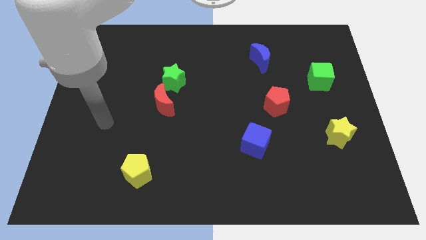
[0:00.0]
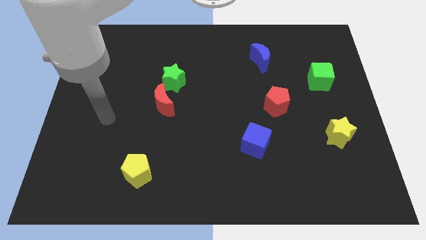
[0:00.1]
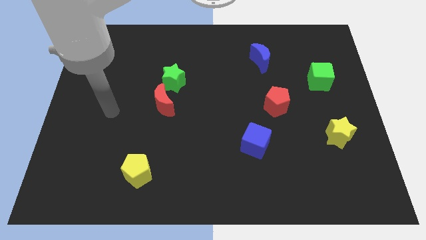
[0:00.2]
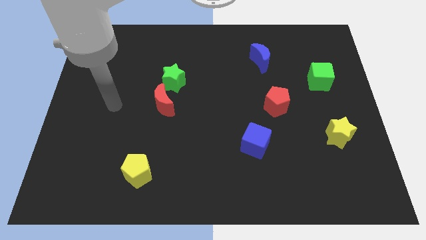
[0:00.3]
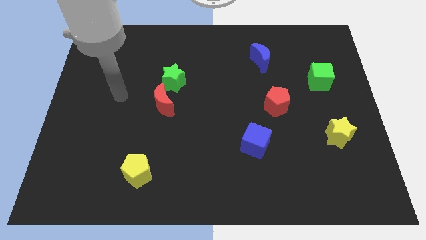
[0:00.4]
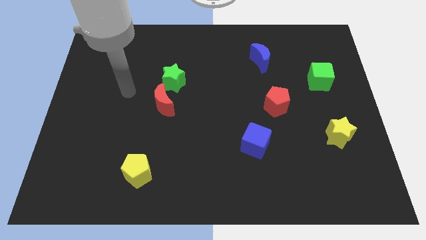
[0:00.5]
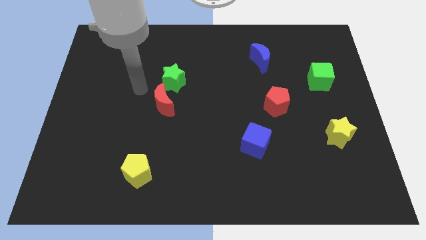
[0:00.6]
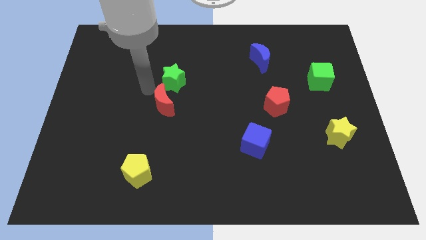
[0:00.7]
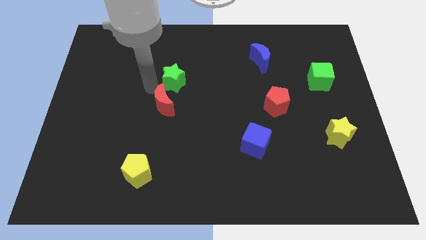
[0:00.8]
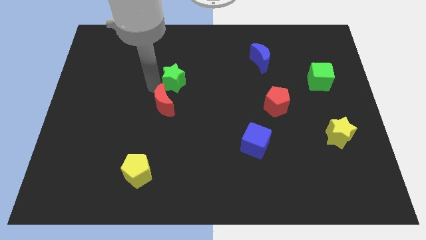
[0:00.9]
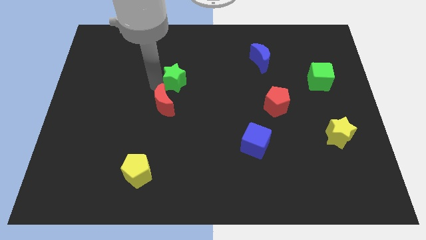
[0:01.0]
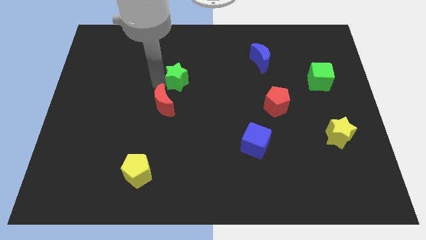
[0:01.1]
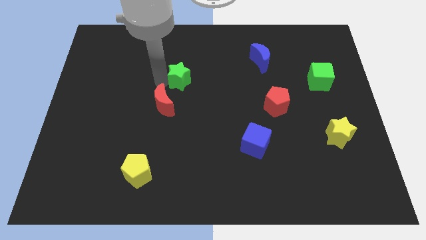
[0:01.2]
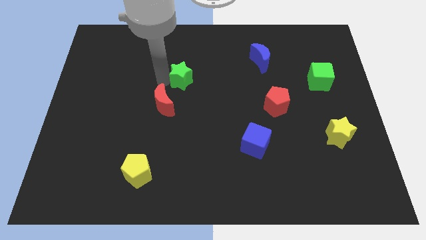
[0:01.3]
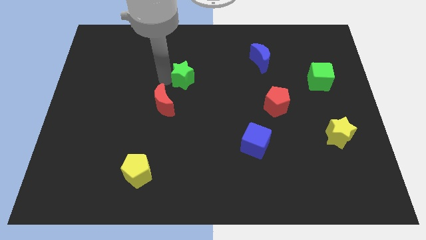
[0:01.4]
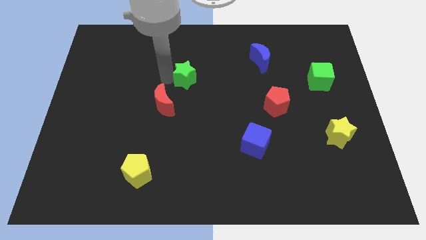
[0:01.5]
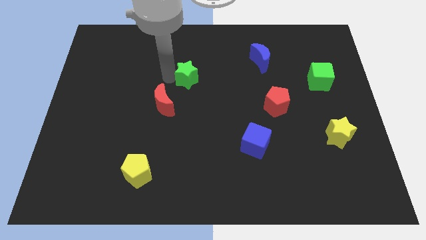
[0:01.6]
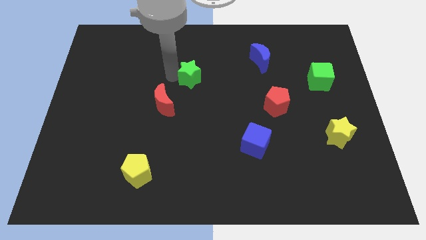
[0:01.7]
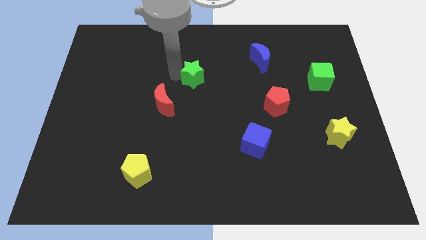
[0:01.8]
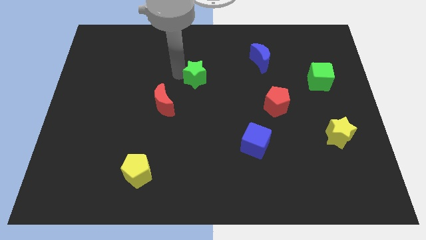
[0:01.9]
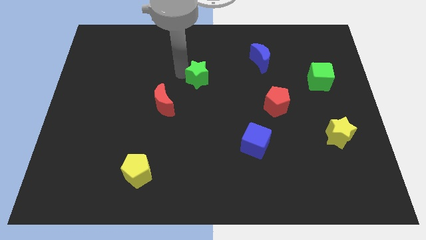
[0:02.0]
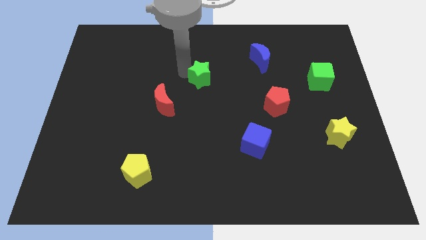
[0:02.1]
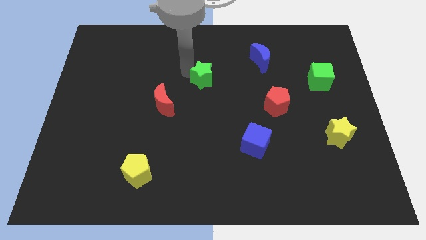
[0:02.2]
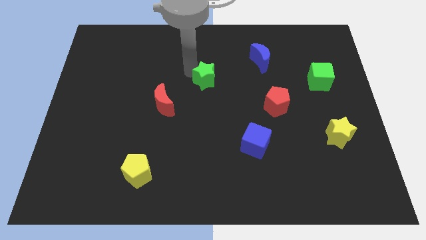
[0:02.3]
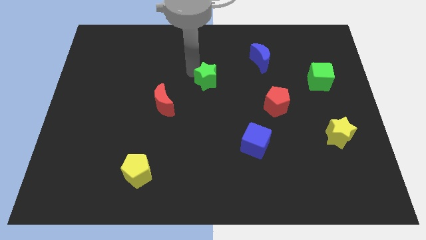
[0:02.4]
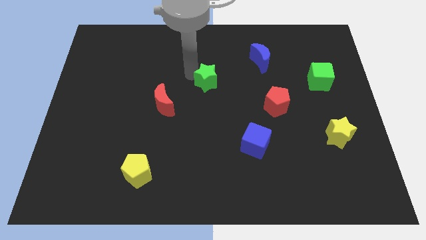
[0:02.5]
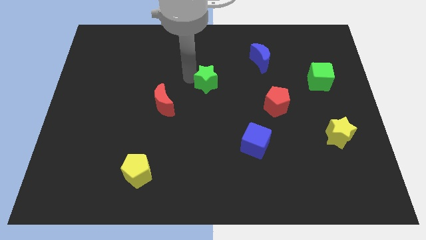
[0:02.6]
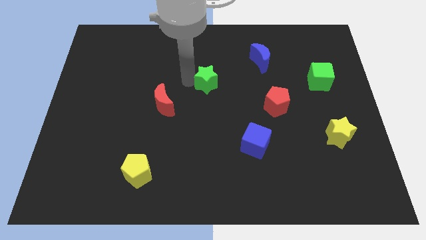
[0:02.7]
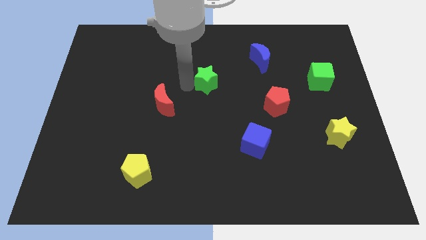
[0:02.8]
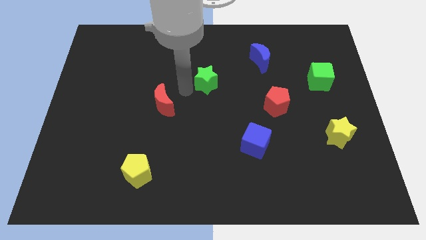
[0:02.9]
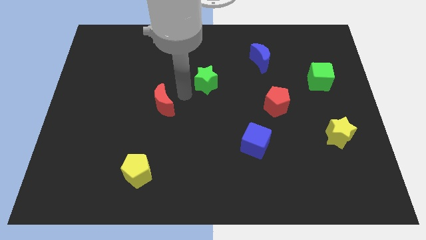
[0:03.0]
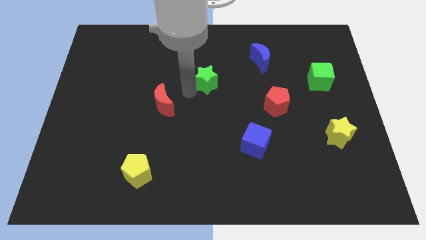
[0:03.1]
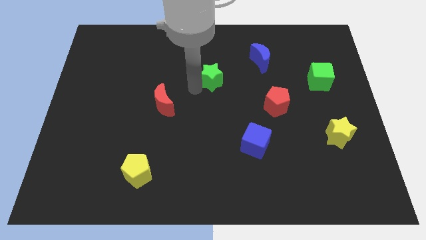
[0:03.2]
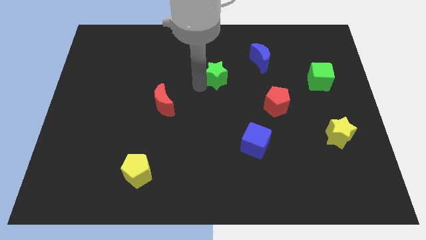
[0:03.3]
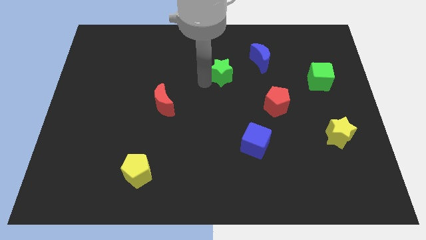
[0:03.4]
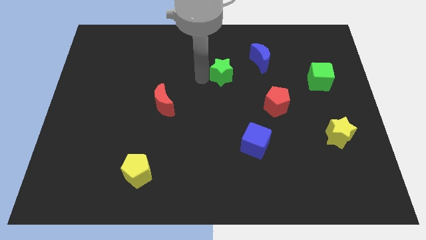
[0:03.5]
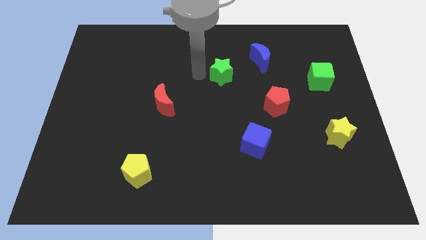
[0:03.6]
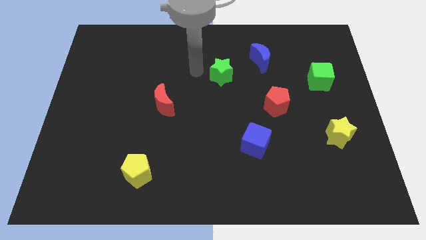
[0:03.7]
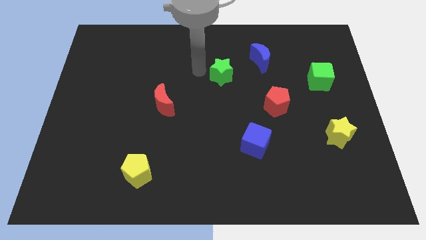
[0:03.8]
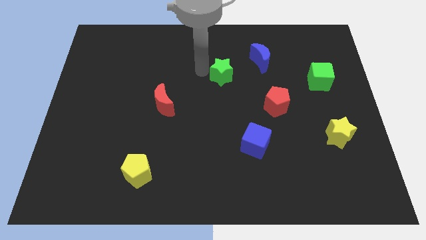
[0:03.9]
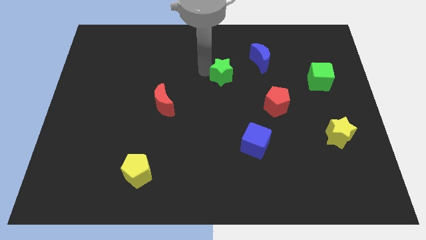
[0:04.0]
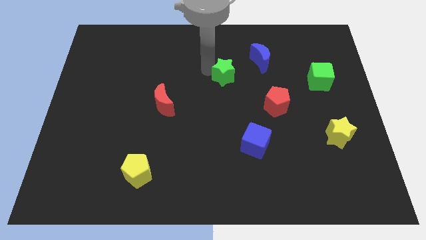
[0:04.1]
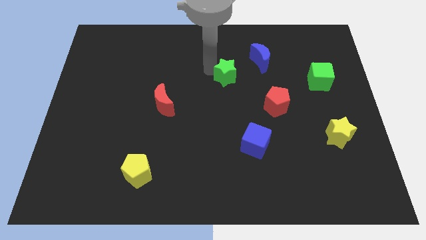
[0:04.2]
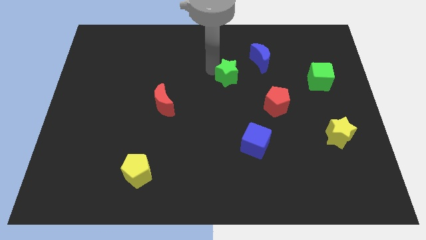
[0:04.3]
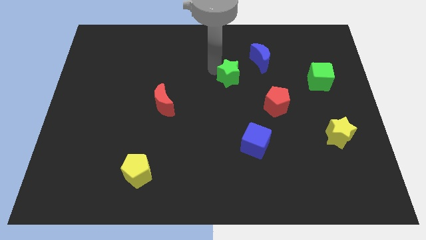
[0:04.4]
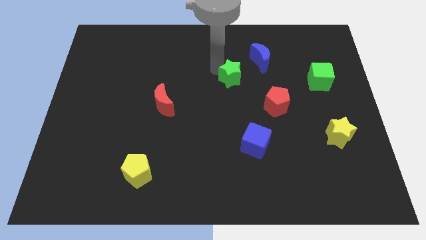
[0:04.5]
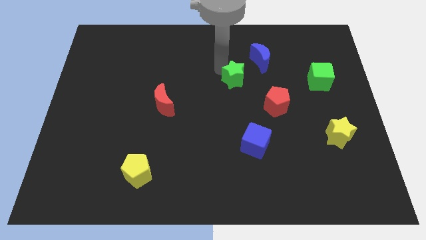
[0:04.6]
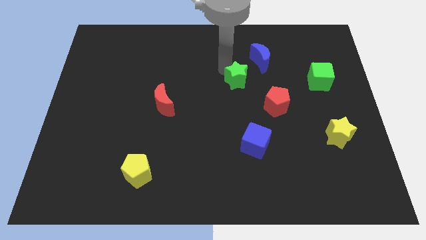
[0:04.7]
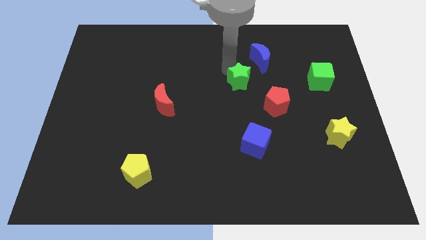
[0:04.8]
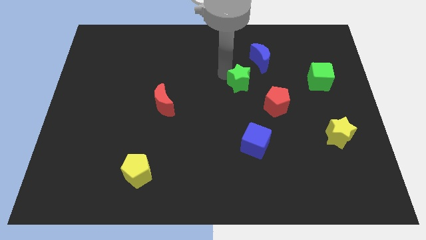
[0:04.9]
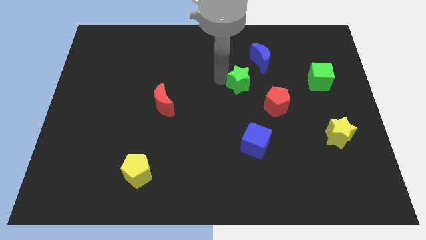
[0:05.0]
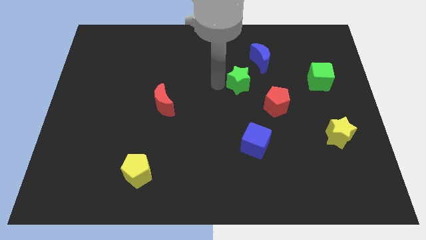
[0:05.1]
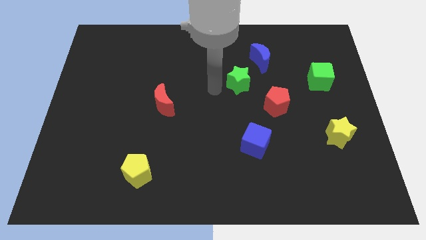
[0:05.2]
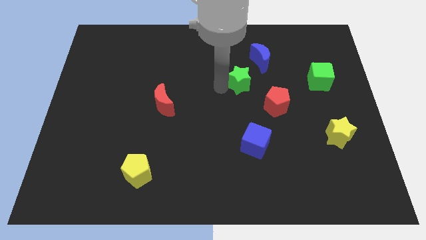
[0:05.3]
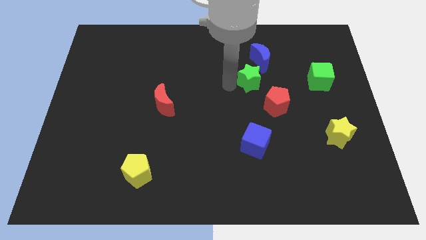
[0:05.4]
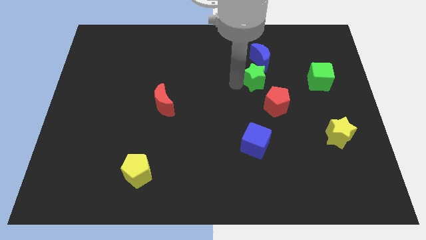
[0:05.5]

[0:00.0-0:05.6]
slide the green star to the top side of the red pentagon

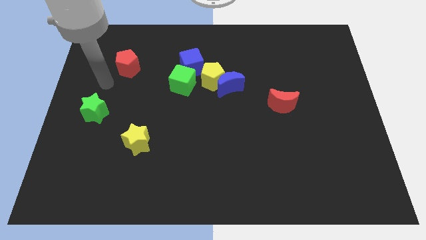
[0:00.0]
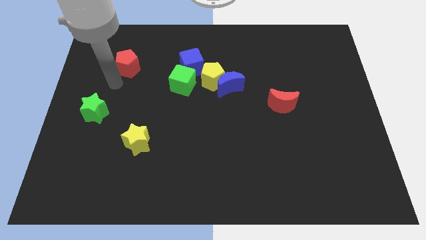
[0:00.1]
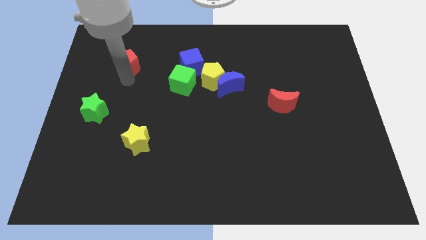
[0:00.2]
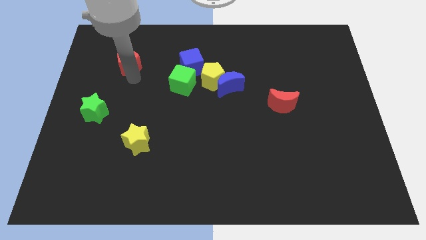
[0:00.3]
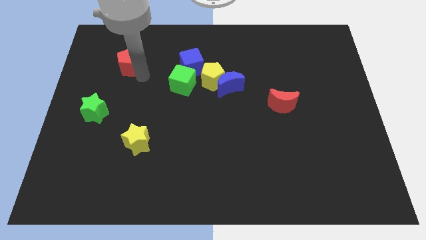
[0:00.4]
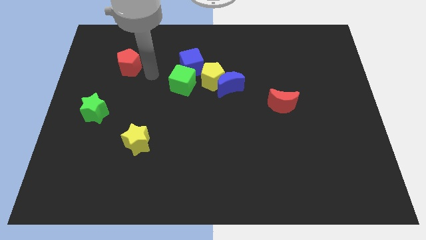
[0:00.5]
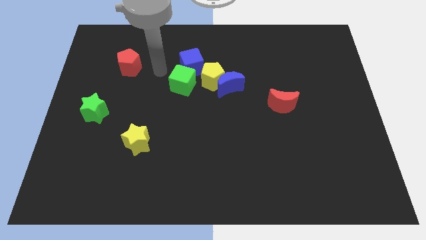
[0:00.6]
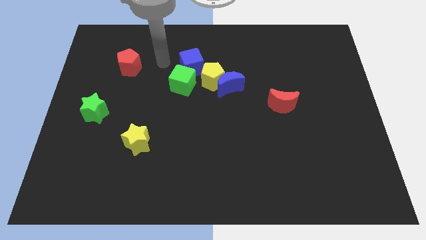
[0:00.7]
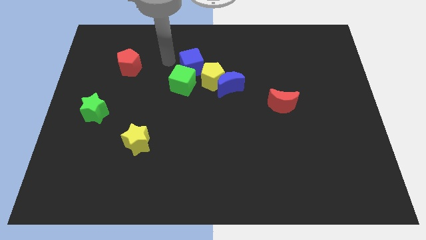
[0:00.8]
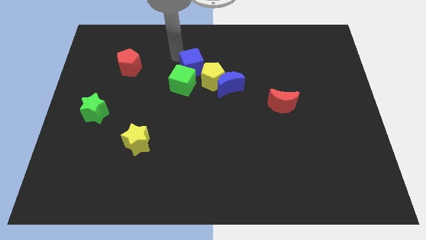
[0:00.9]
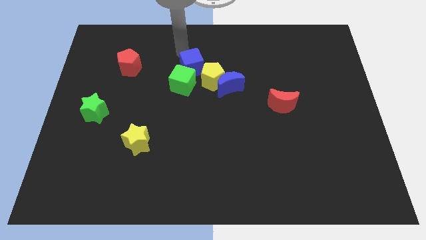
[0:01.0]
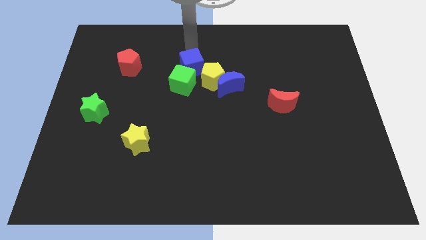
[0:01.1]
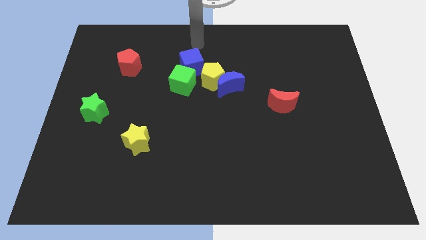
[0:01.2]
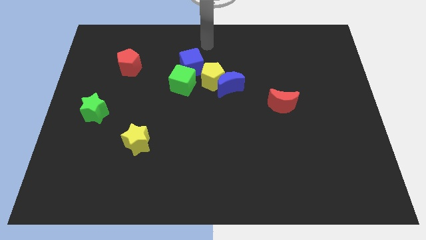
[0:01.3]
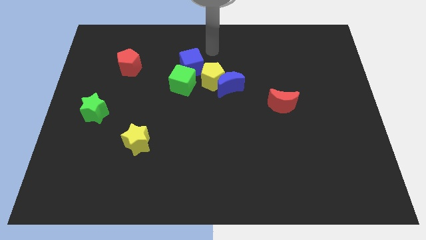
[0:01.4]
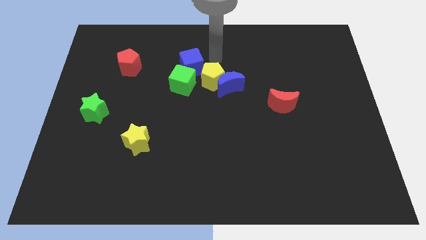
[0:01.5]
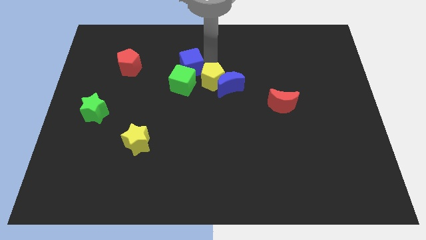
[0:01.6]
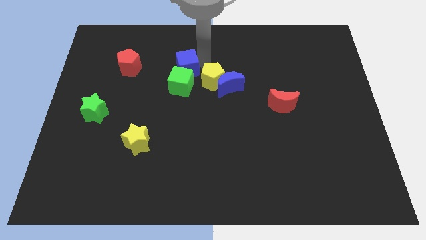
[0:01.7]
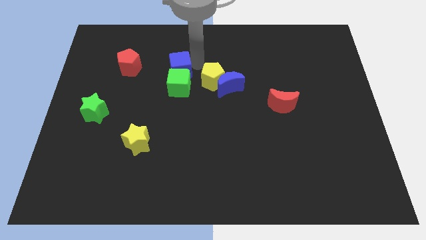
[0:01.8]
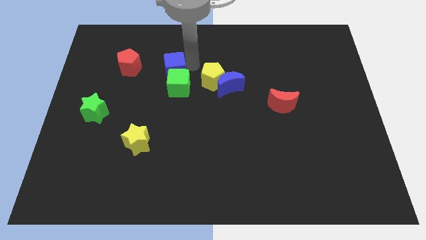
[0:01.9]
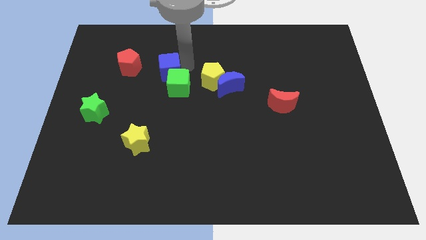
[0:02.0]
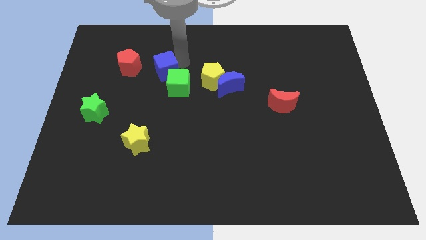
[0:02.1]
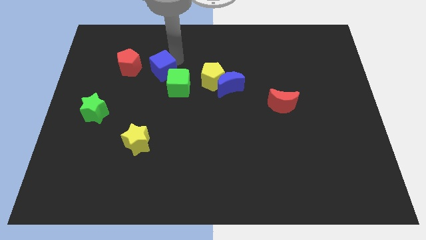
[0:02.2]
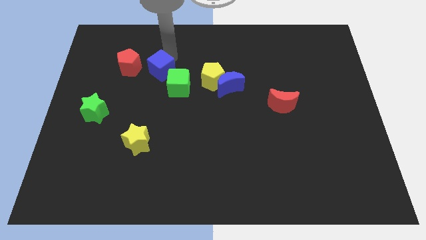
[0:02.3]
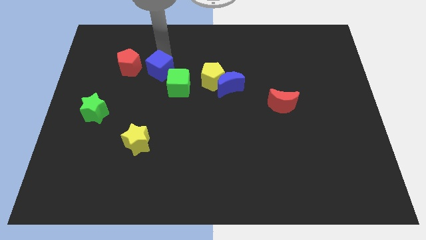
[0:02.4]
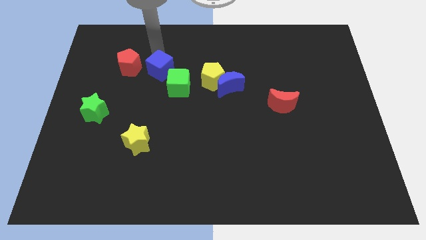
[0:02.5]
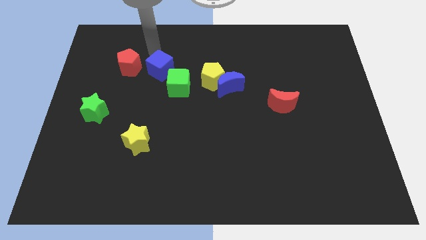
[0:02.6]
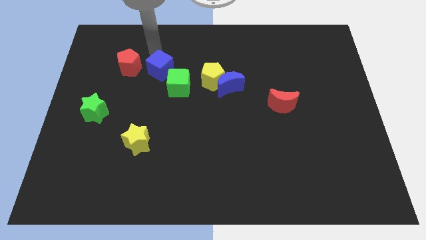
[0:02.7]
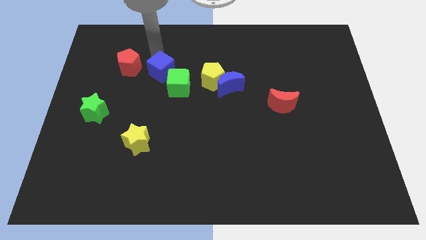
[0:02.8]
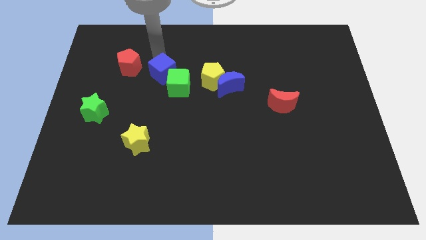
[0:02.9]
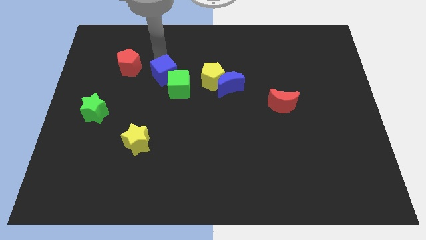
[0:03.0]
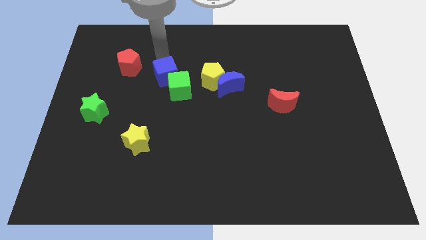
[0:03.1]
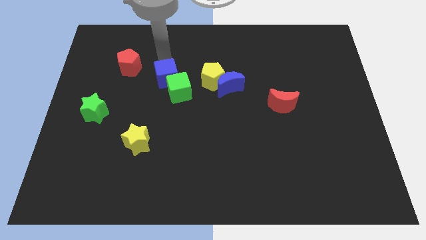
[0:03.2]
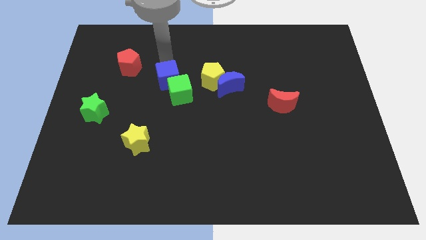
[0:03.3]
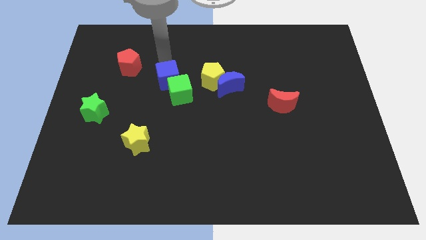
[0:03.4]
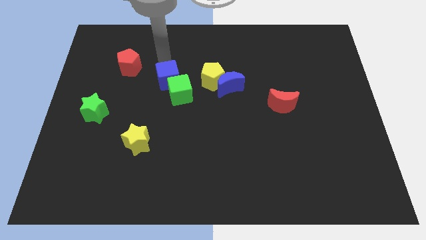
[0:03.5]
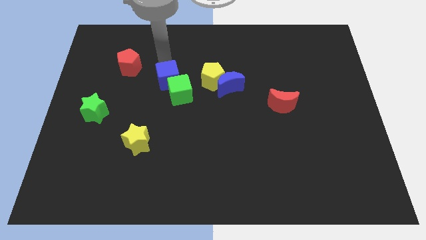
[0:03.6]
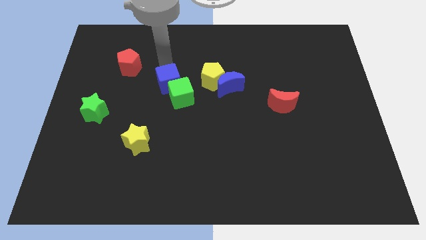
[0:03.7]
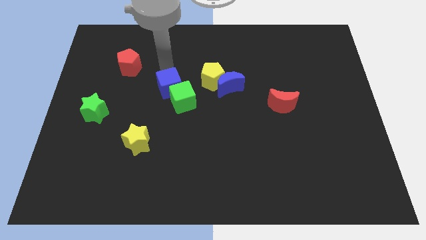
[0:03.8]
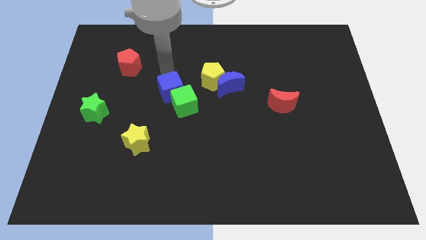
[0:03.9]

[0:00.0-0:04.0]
move the blue cube to the bottom left side of the yellow pentagon
